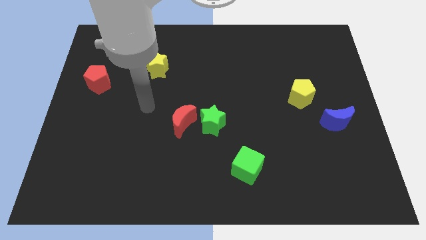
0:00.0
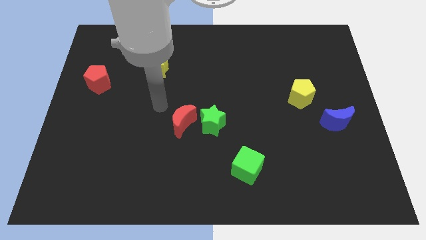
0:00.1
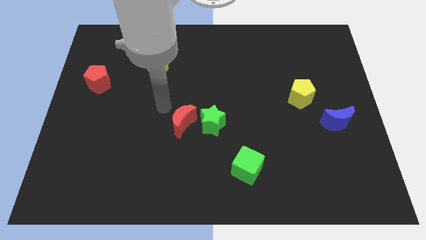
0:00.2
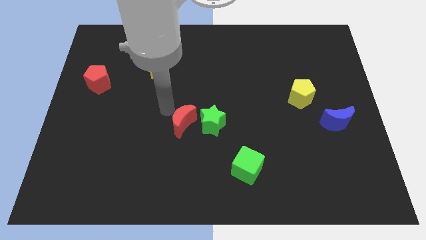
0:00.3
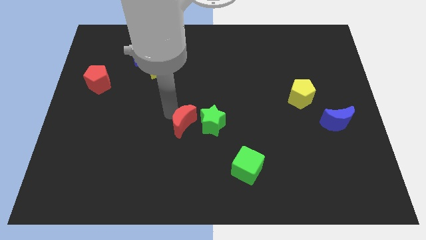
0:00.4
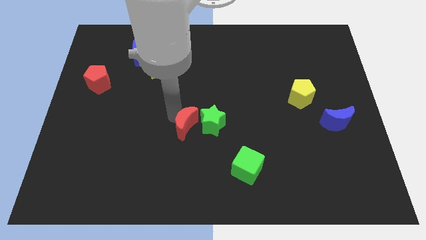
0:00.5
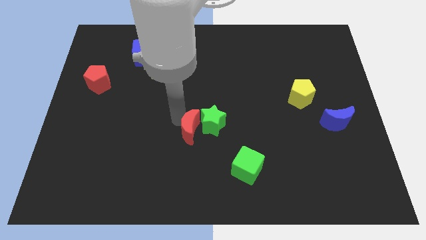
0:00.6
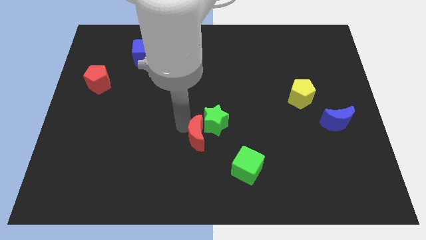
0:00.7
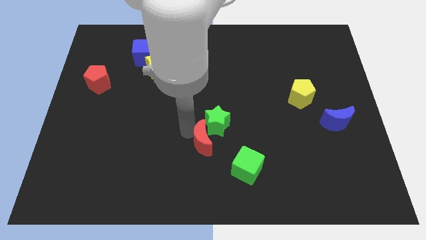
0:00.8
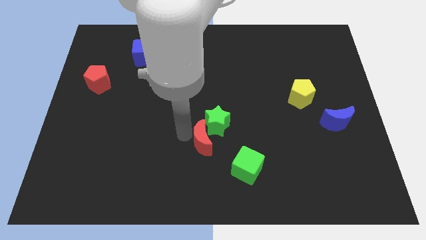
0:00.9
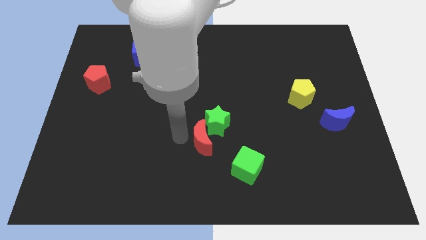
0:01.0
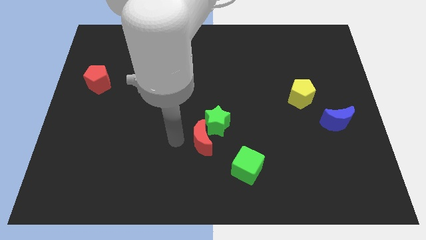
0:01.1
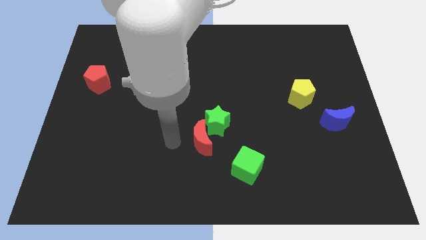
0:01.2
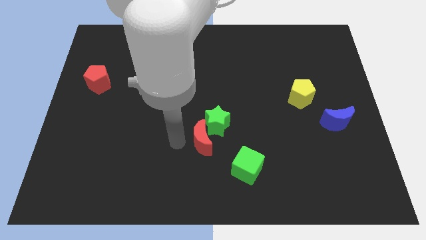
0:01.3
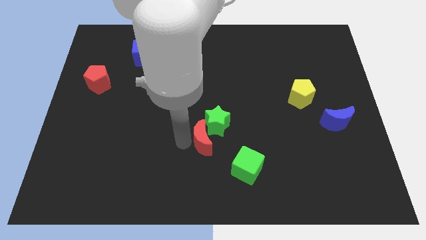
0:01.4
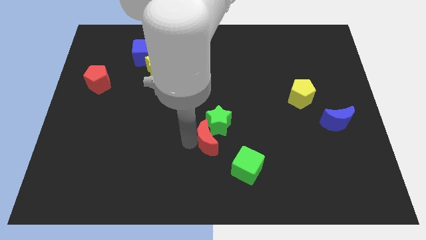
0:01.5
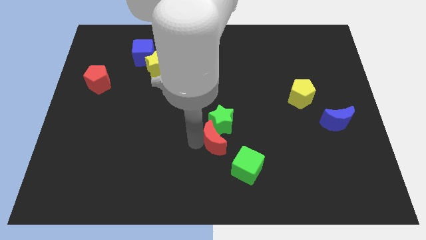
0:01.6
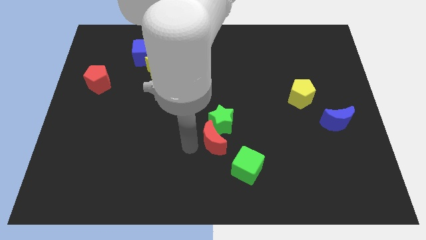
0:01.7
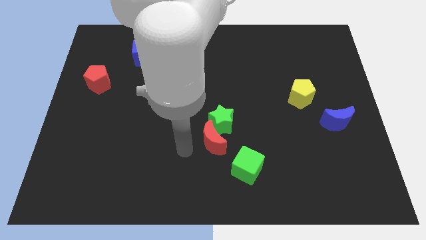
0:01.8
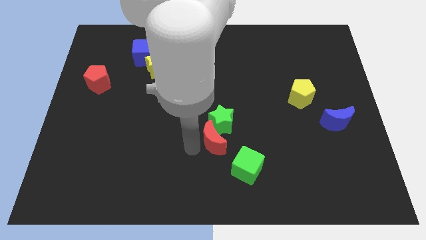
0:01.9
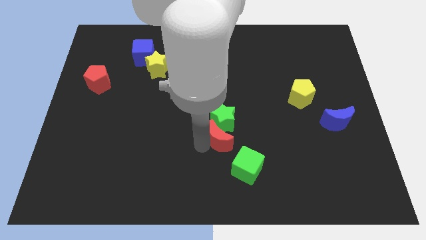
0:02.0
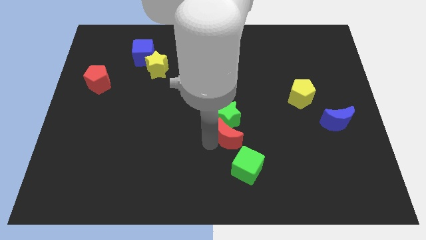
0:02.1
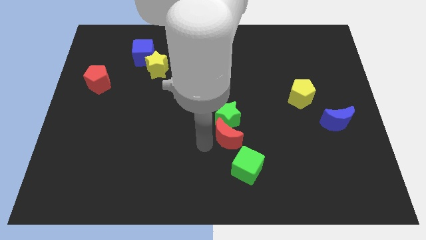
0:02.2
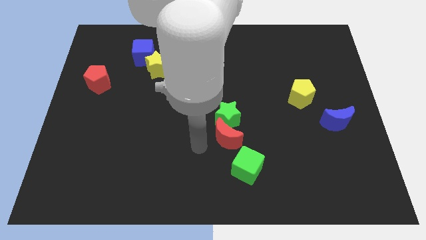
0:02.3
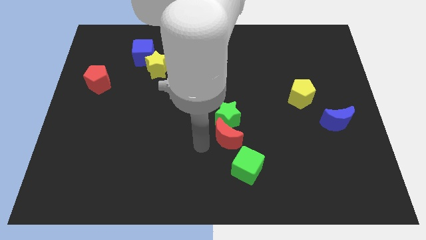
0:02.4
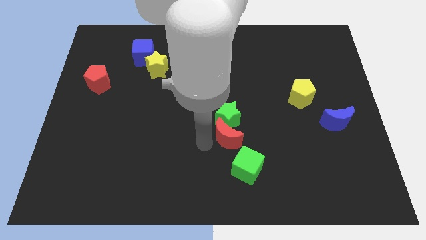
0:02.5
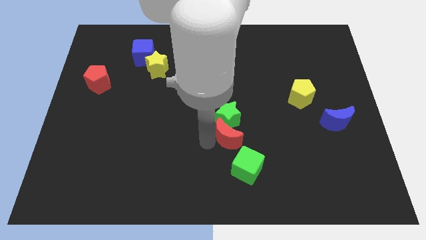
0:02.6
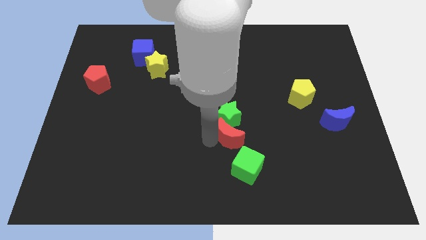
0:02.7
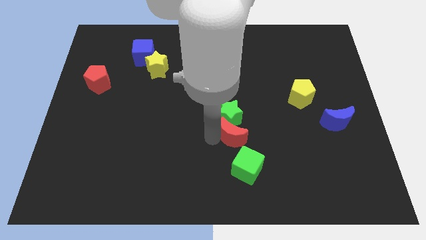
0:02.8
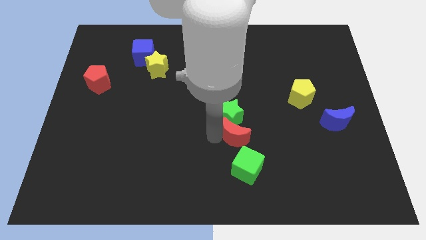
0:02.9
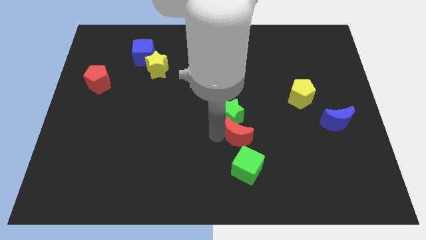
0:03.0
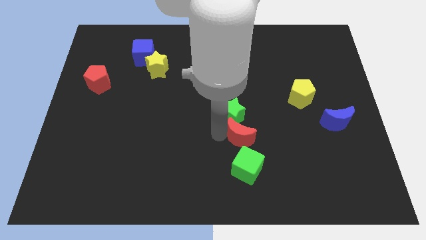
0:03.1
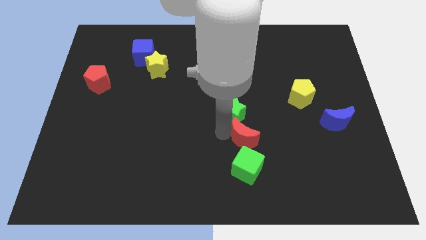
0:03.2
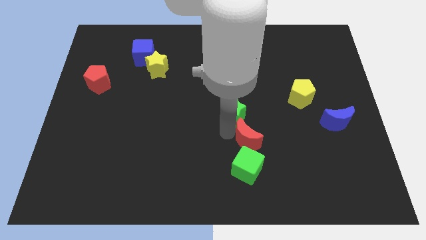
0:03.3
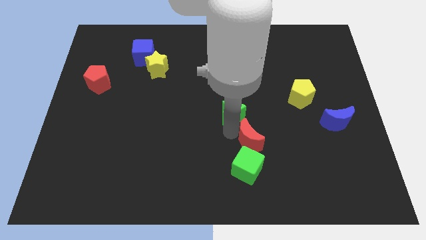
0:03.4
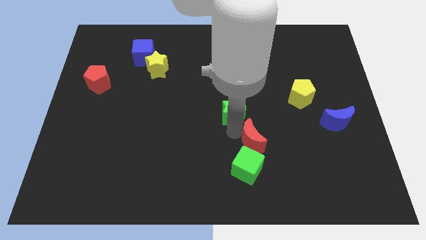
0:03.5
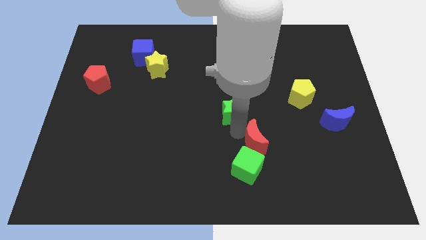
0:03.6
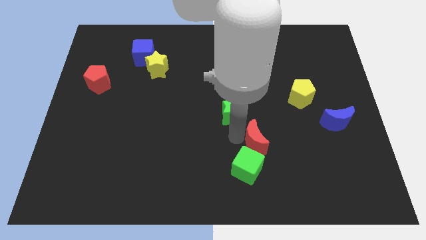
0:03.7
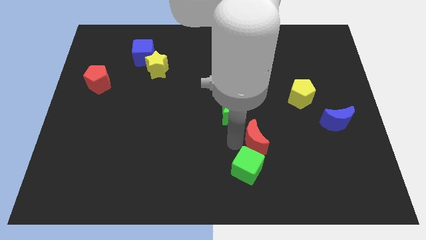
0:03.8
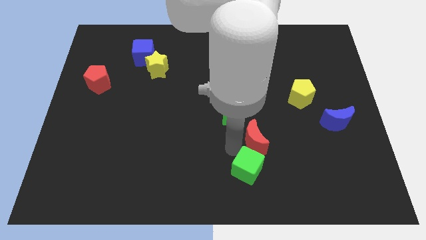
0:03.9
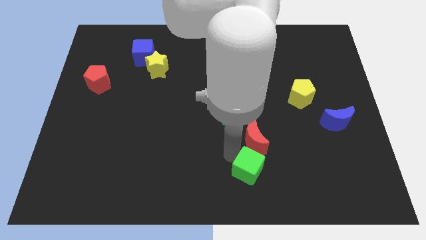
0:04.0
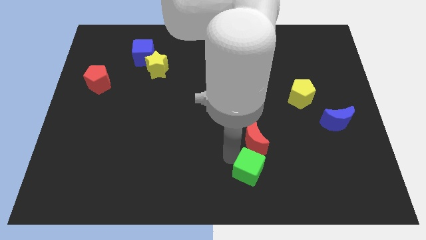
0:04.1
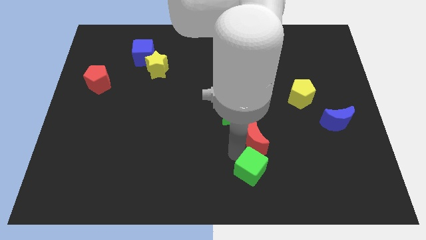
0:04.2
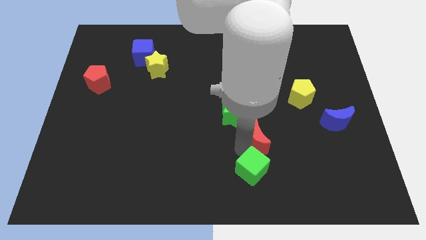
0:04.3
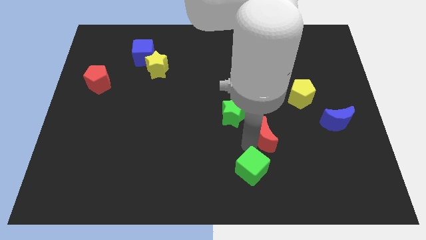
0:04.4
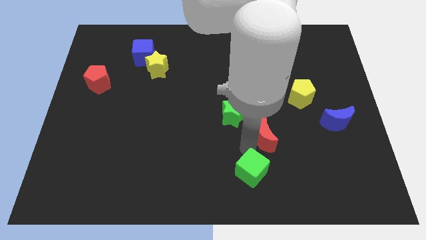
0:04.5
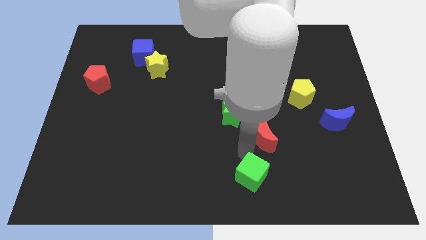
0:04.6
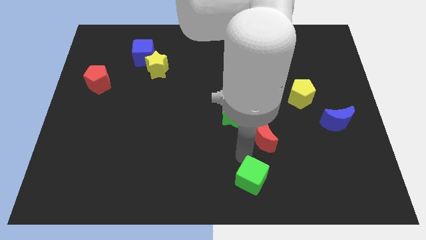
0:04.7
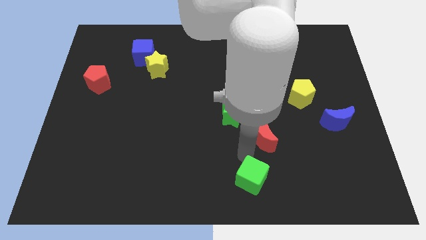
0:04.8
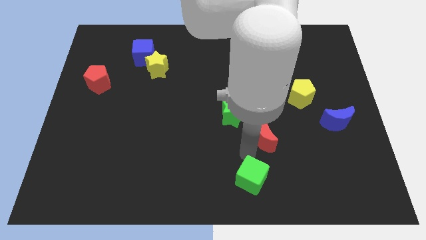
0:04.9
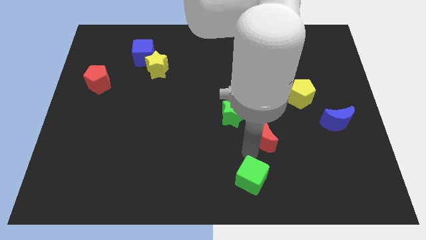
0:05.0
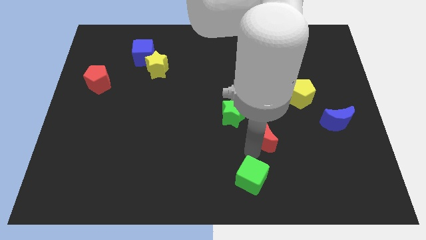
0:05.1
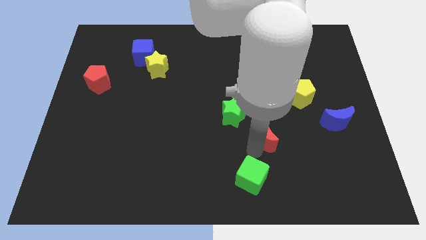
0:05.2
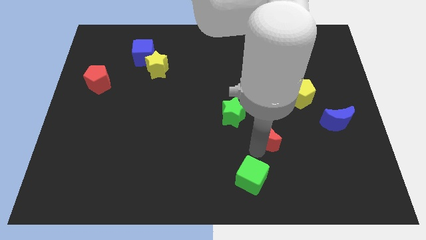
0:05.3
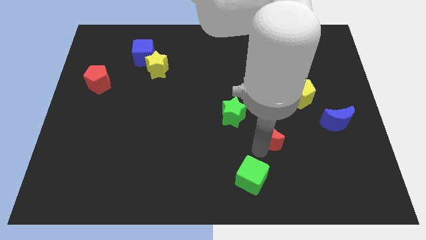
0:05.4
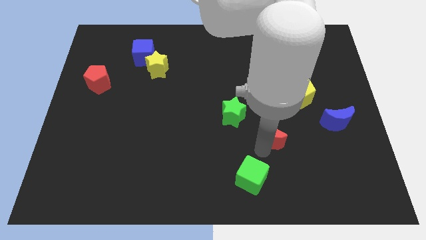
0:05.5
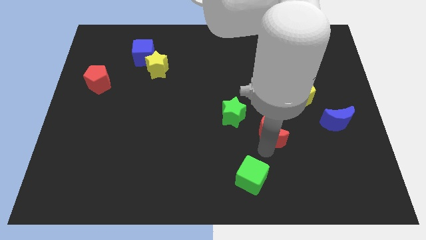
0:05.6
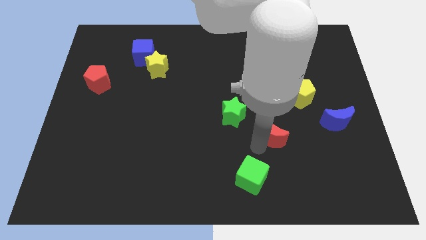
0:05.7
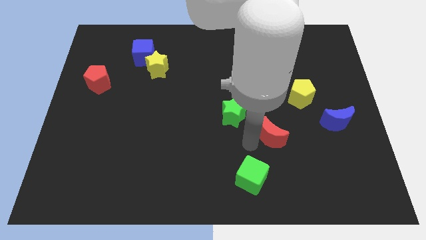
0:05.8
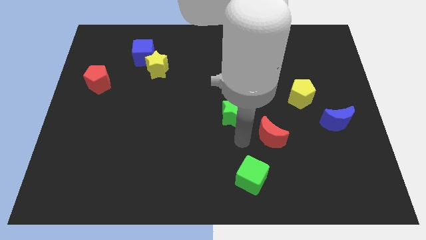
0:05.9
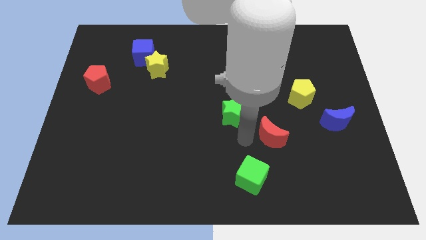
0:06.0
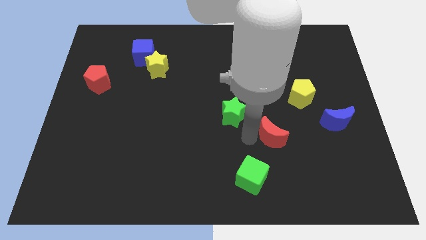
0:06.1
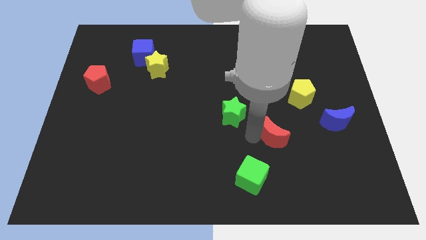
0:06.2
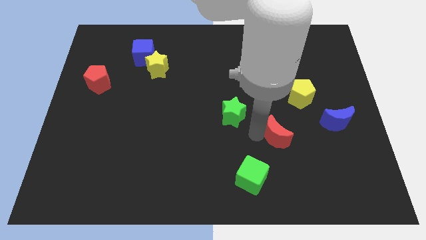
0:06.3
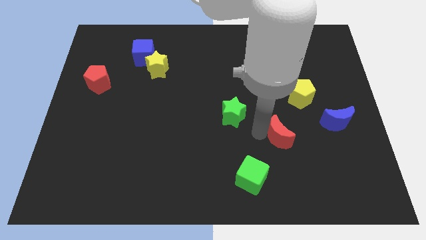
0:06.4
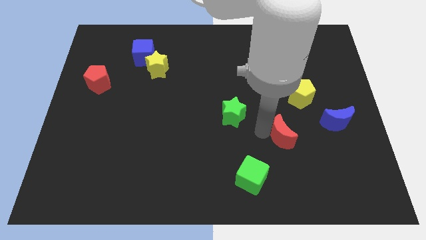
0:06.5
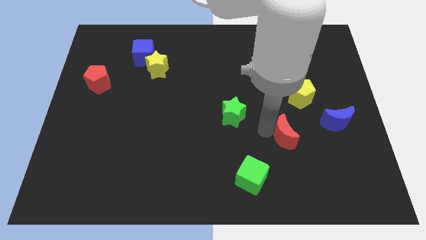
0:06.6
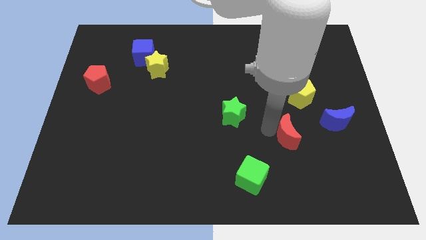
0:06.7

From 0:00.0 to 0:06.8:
put the red moon to the bottom side of the yellow pentagon
